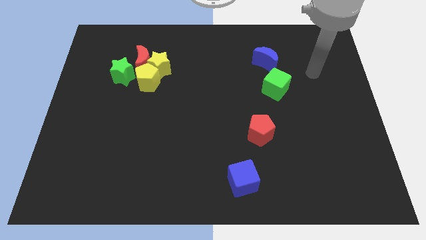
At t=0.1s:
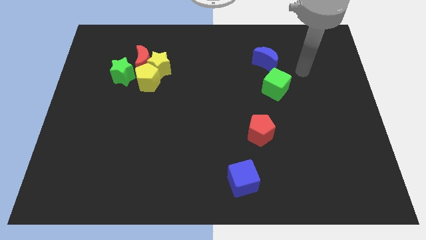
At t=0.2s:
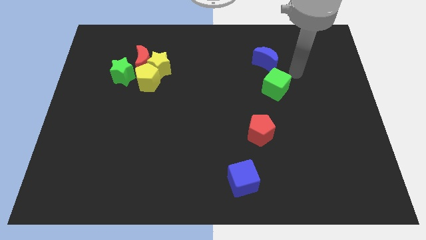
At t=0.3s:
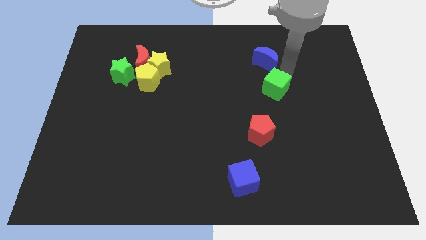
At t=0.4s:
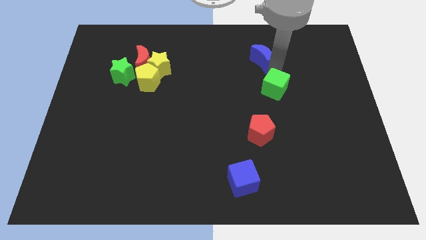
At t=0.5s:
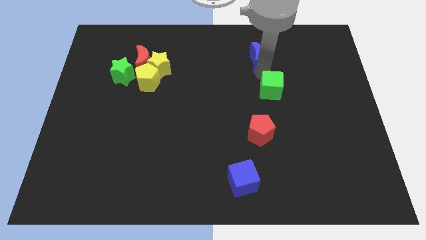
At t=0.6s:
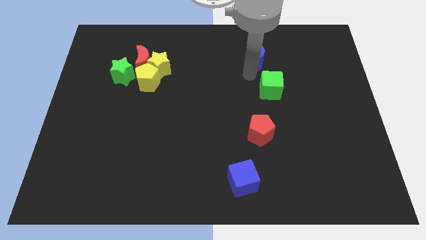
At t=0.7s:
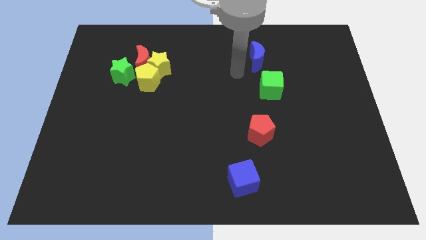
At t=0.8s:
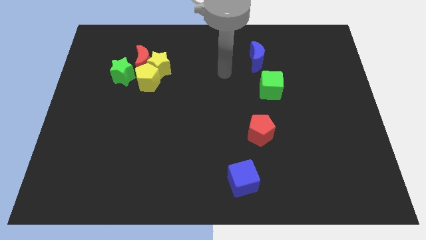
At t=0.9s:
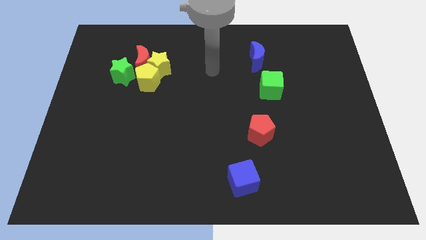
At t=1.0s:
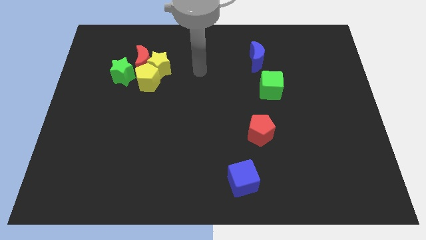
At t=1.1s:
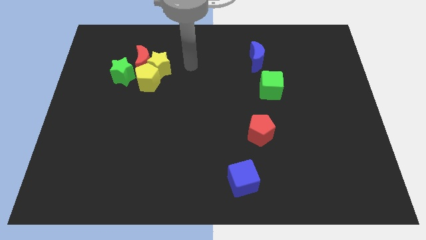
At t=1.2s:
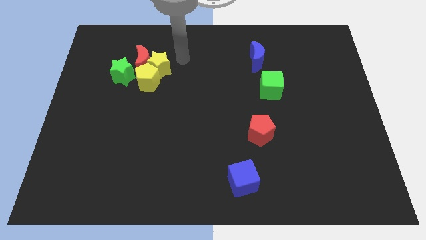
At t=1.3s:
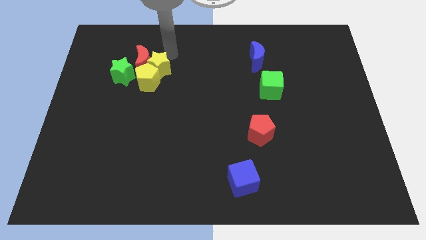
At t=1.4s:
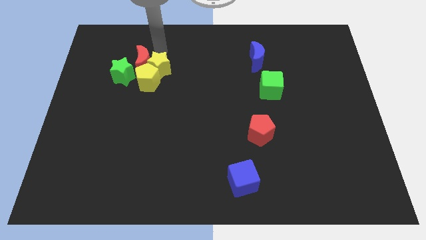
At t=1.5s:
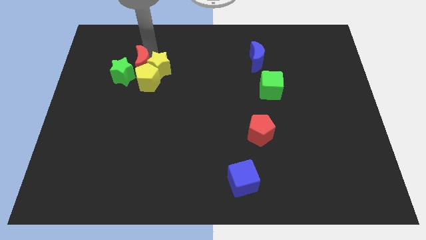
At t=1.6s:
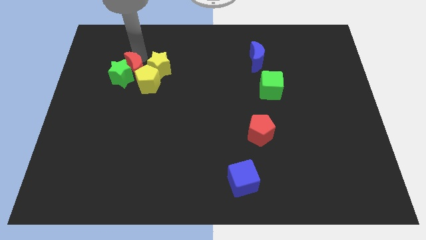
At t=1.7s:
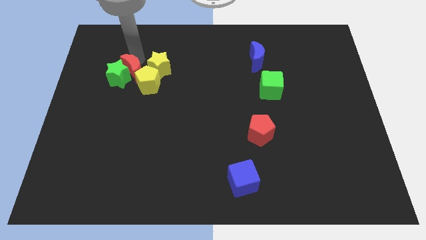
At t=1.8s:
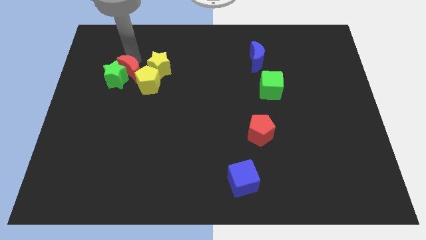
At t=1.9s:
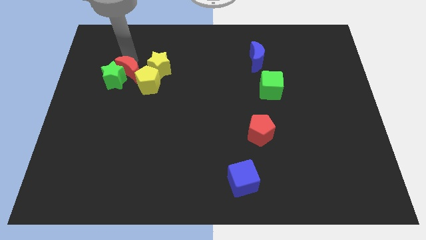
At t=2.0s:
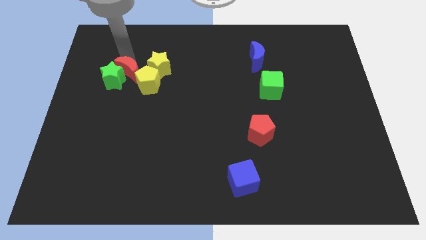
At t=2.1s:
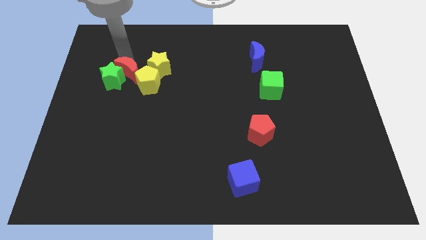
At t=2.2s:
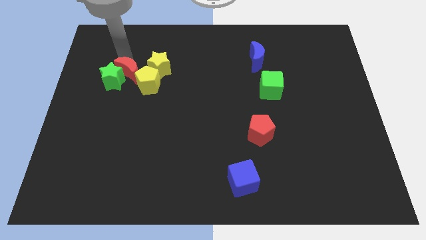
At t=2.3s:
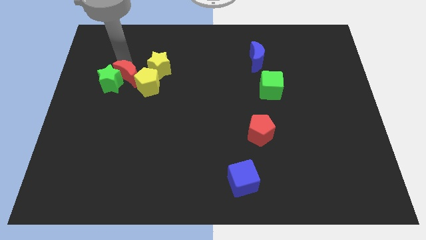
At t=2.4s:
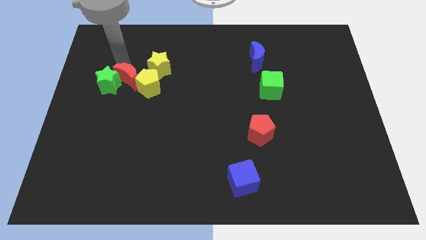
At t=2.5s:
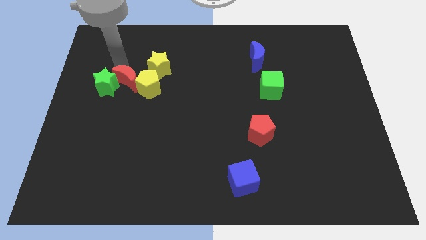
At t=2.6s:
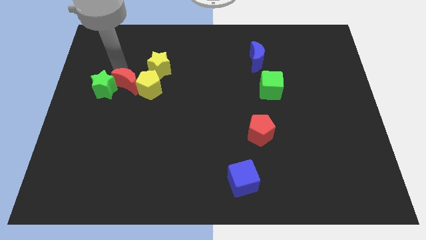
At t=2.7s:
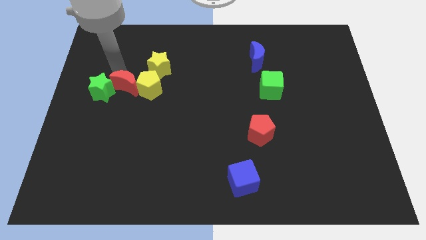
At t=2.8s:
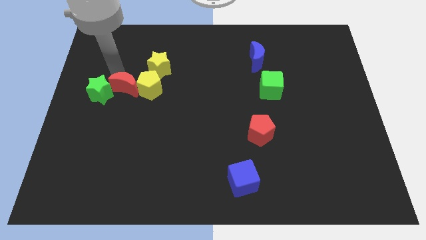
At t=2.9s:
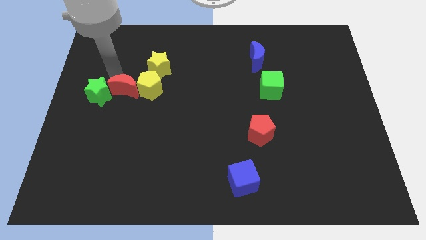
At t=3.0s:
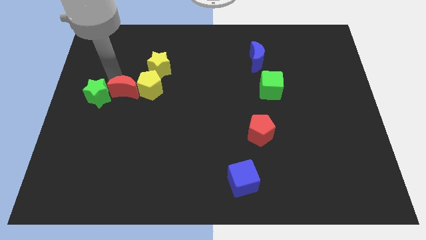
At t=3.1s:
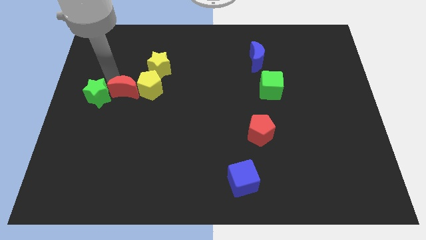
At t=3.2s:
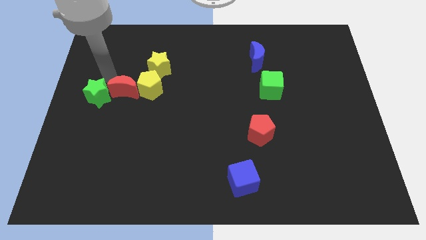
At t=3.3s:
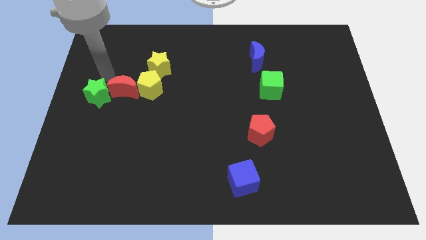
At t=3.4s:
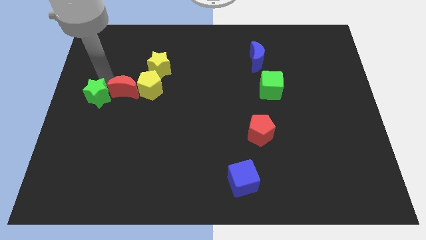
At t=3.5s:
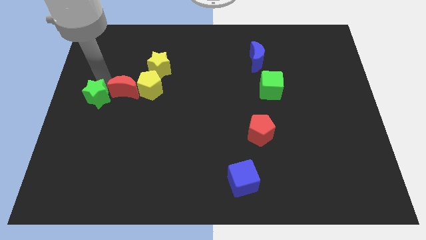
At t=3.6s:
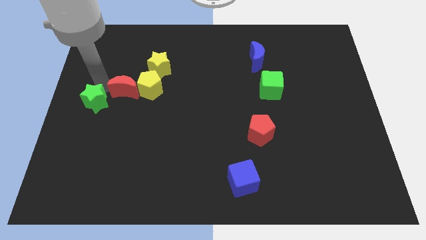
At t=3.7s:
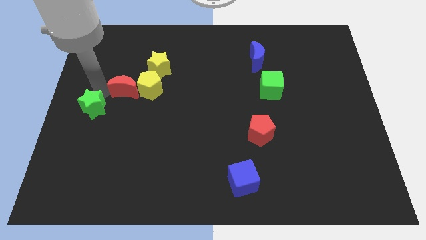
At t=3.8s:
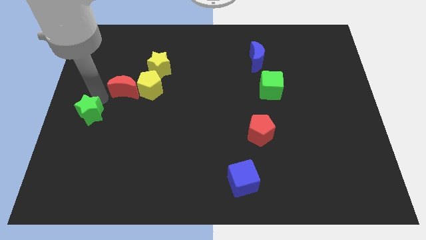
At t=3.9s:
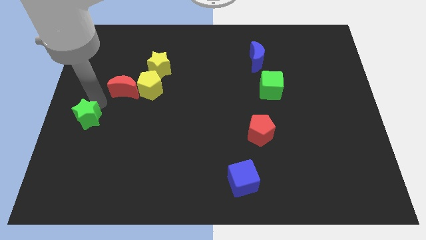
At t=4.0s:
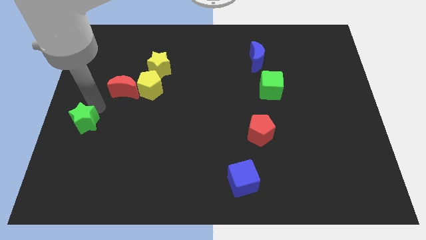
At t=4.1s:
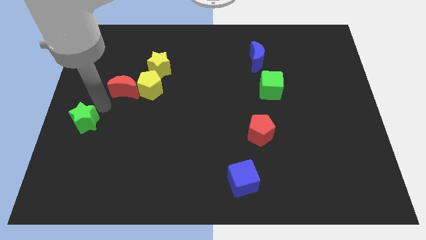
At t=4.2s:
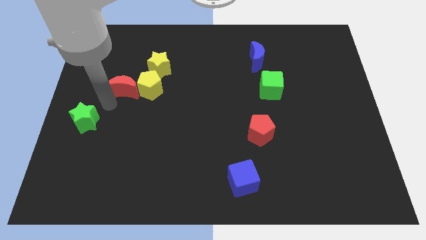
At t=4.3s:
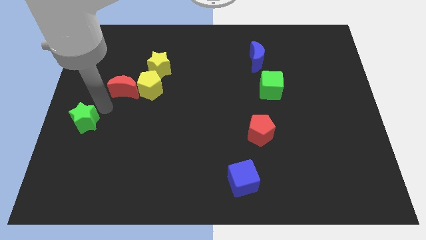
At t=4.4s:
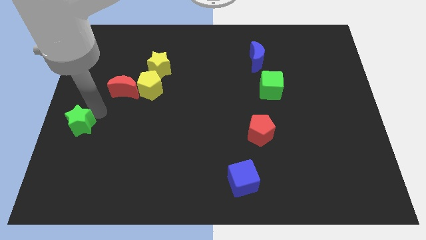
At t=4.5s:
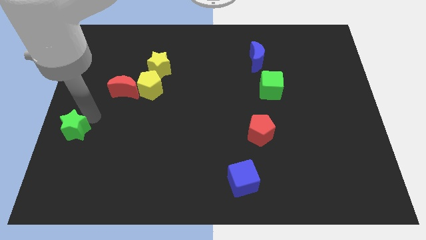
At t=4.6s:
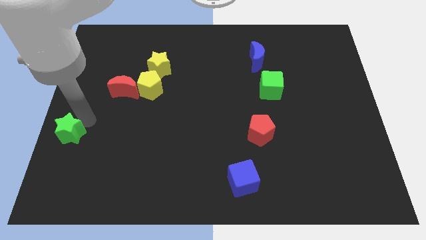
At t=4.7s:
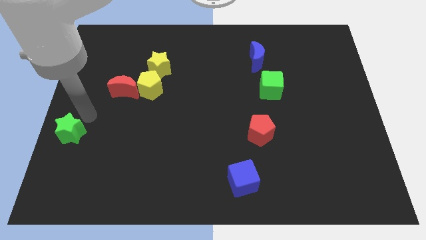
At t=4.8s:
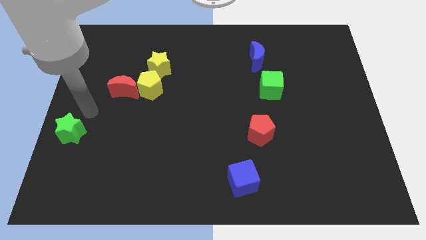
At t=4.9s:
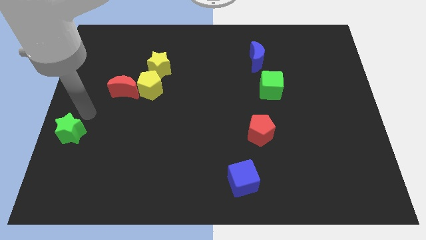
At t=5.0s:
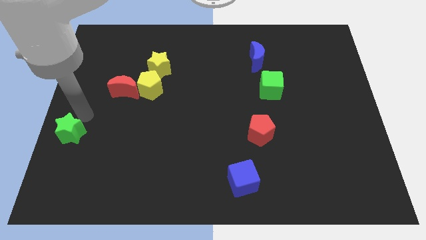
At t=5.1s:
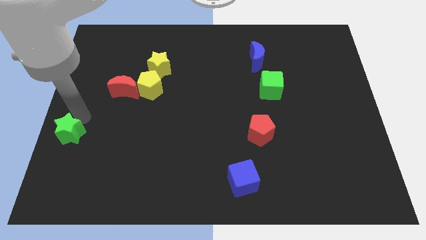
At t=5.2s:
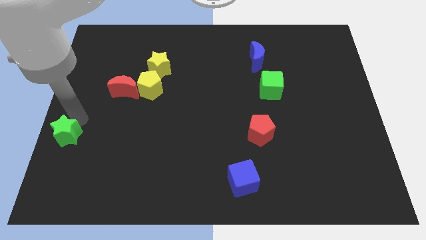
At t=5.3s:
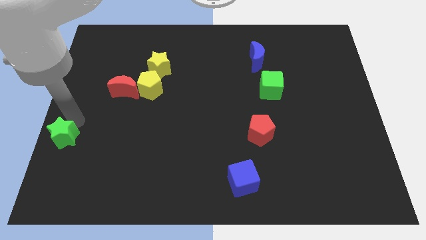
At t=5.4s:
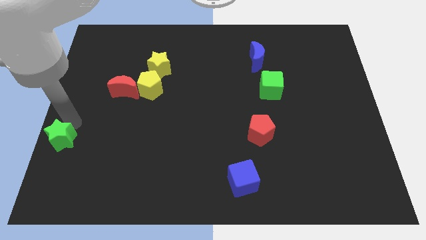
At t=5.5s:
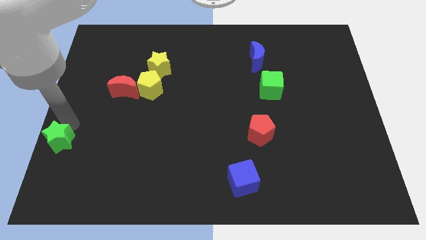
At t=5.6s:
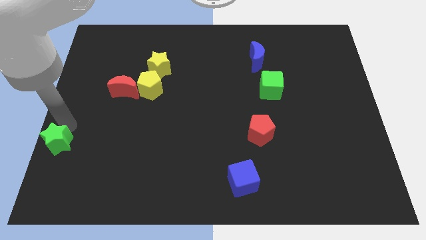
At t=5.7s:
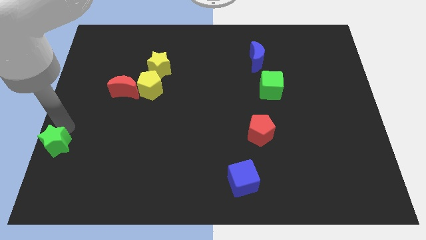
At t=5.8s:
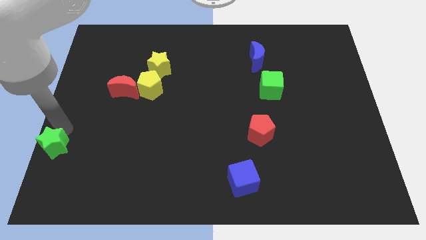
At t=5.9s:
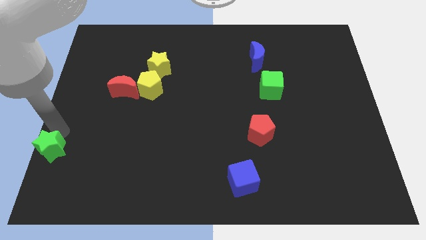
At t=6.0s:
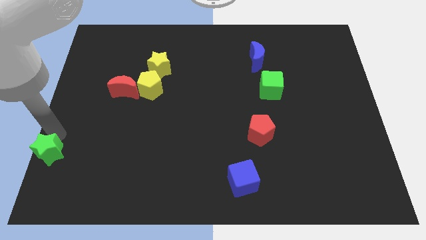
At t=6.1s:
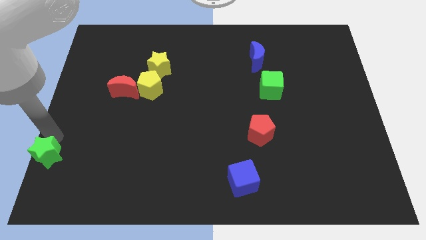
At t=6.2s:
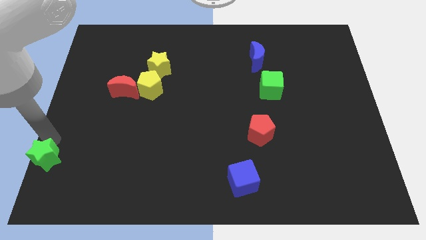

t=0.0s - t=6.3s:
slide the green star to the bottom left corner

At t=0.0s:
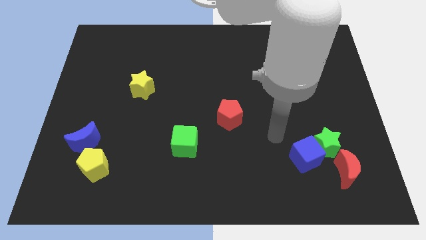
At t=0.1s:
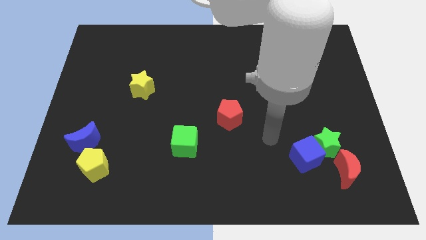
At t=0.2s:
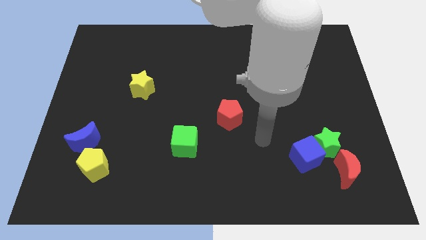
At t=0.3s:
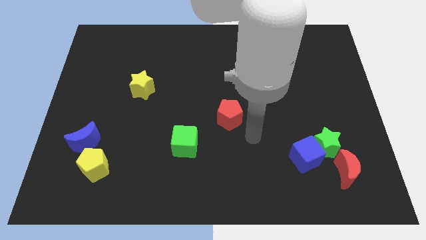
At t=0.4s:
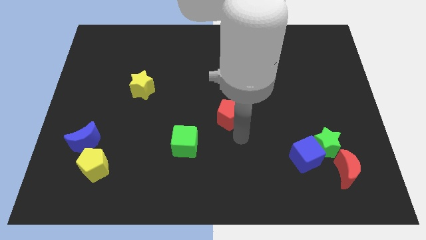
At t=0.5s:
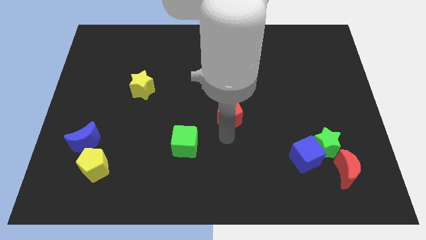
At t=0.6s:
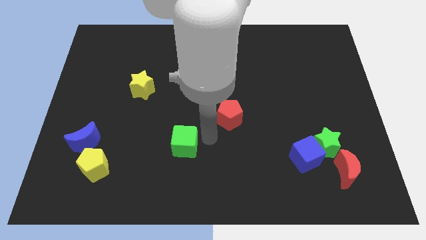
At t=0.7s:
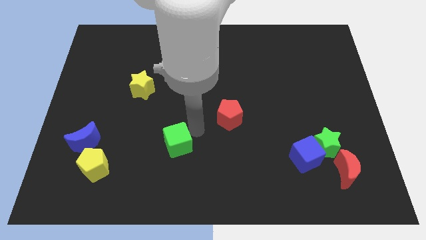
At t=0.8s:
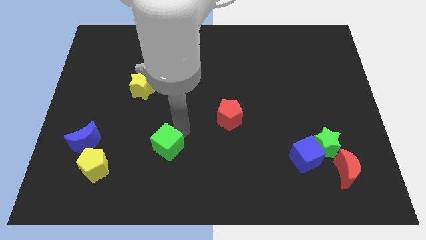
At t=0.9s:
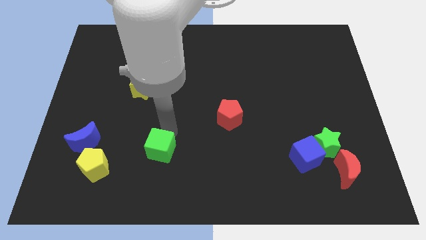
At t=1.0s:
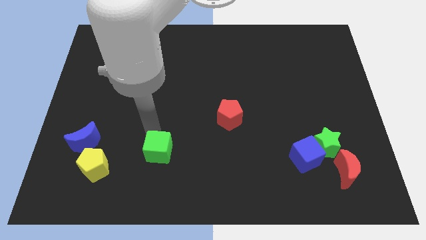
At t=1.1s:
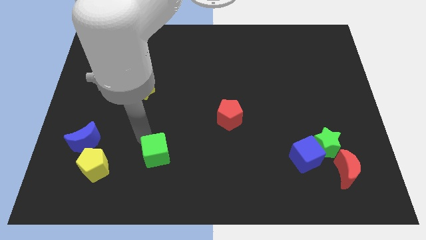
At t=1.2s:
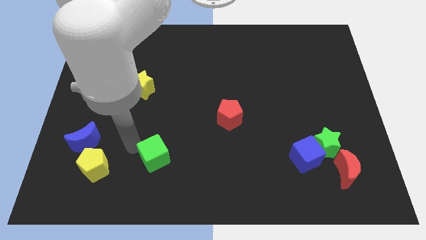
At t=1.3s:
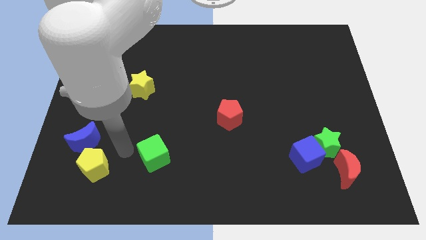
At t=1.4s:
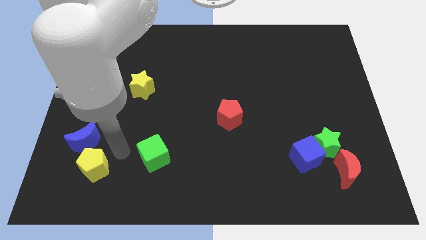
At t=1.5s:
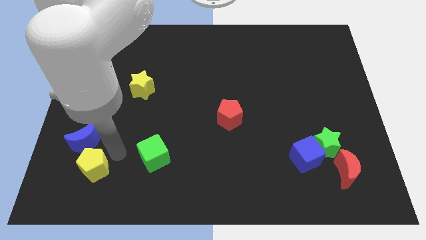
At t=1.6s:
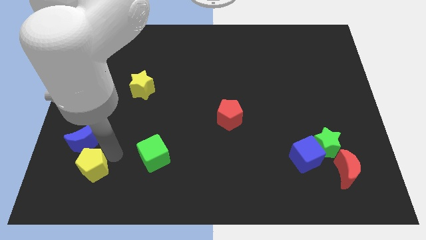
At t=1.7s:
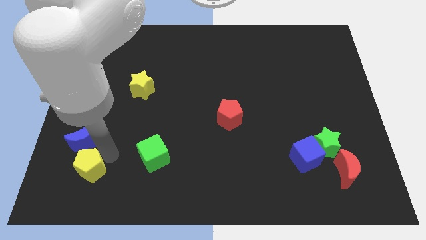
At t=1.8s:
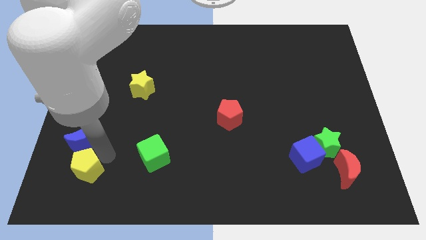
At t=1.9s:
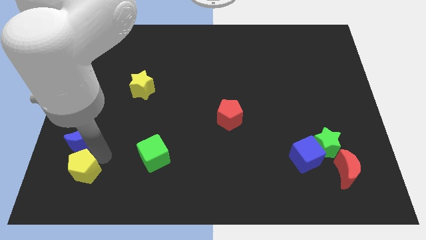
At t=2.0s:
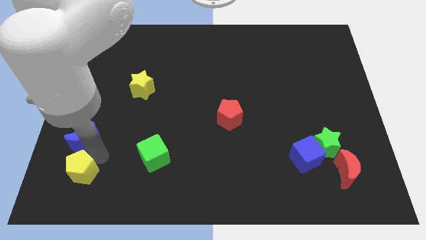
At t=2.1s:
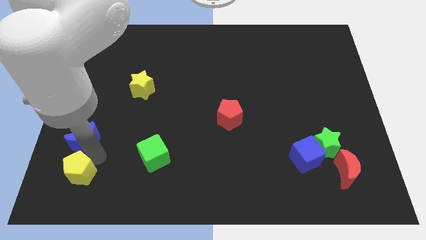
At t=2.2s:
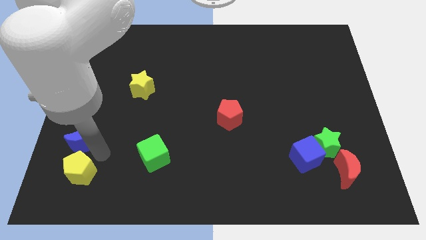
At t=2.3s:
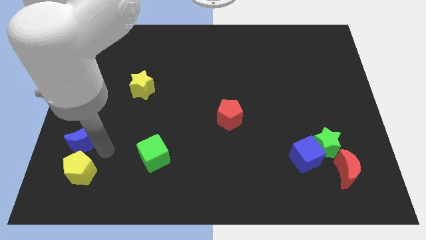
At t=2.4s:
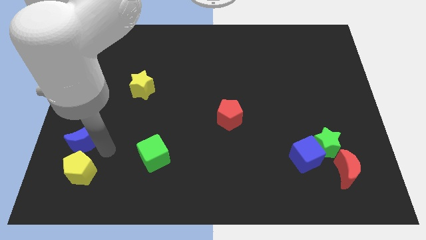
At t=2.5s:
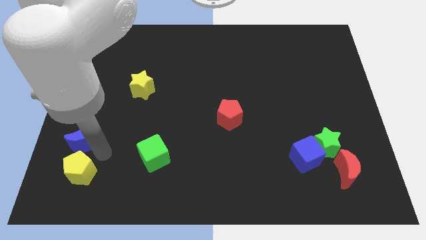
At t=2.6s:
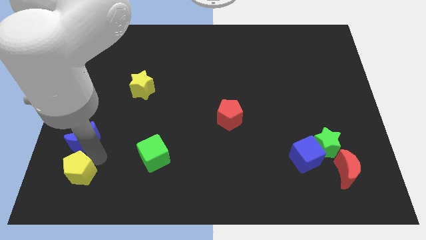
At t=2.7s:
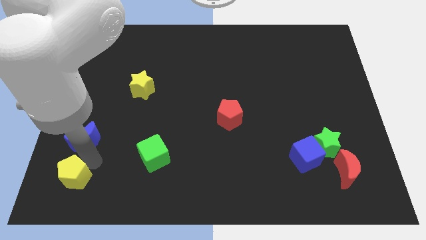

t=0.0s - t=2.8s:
move the yellow pentagon to the bottom left of the board
